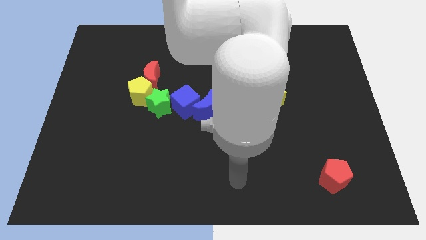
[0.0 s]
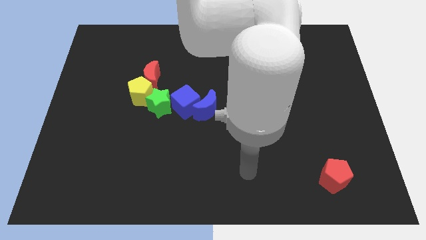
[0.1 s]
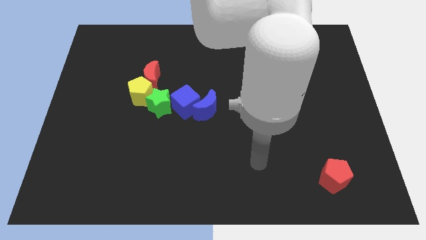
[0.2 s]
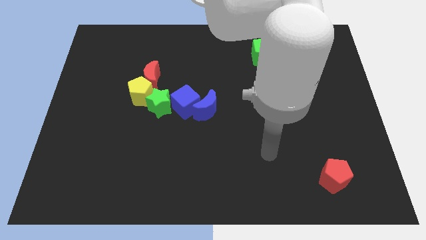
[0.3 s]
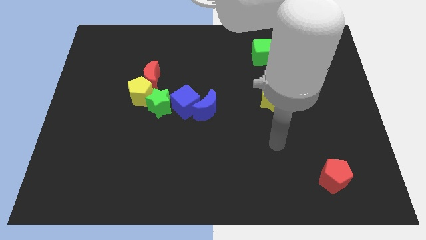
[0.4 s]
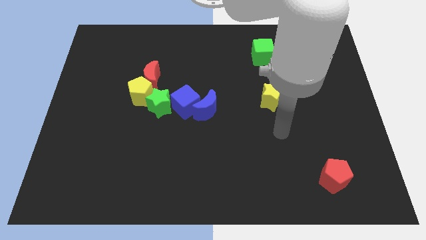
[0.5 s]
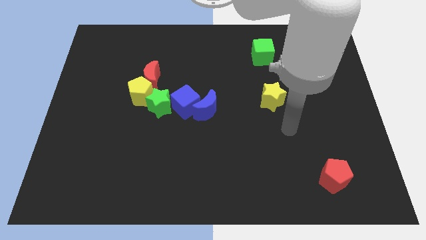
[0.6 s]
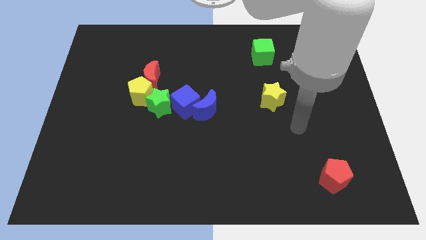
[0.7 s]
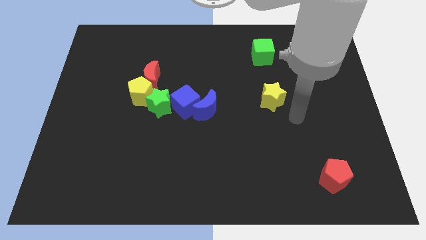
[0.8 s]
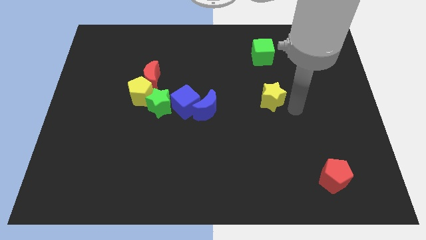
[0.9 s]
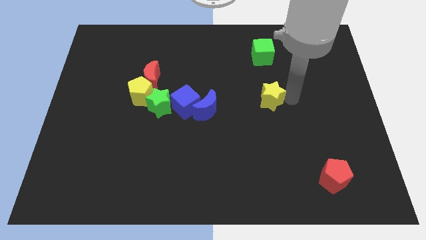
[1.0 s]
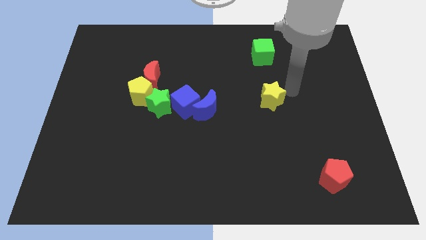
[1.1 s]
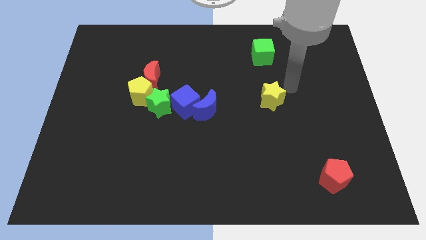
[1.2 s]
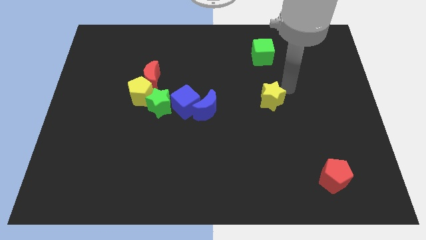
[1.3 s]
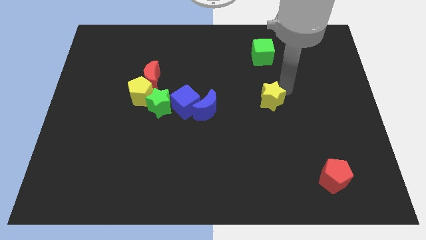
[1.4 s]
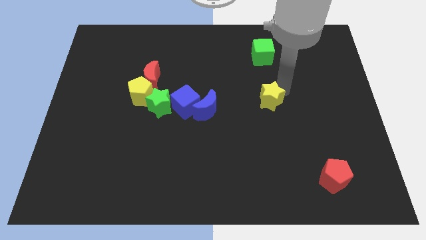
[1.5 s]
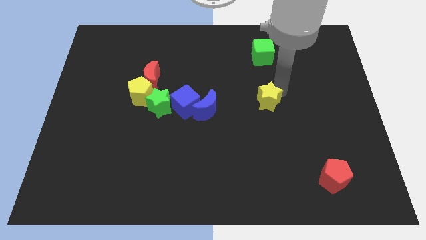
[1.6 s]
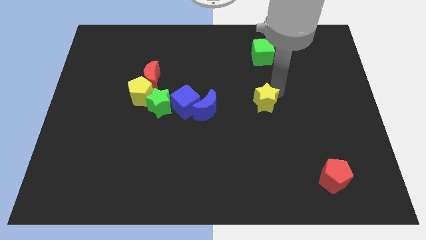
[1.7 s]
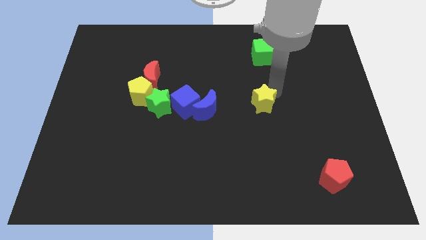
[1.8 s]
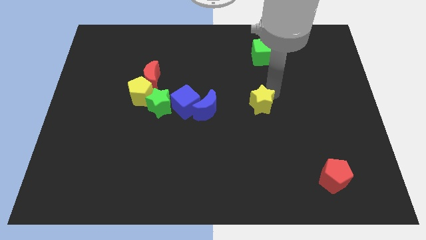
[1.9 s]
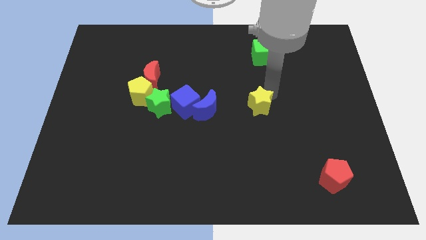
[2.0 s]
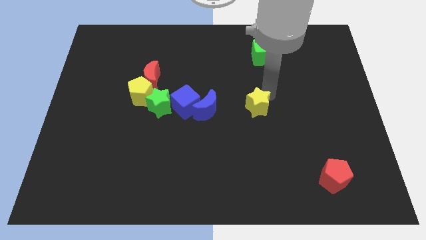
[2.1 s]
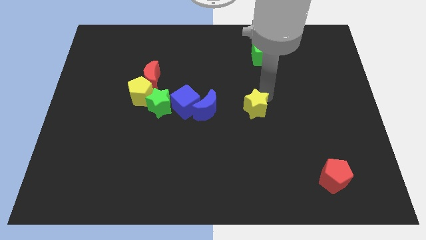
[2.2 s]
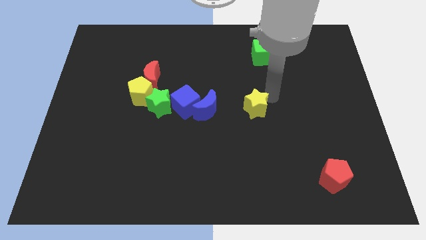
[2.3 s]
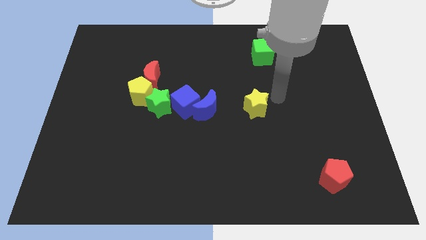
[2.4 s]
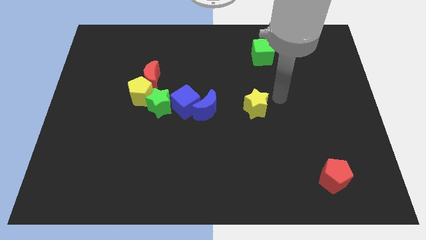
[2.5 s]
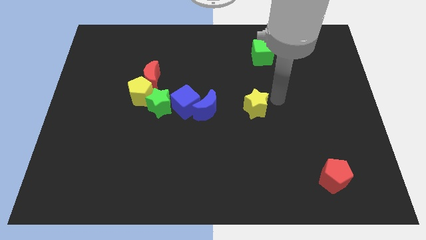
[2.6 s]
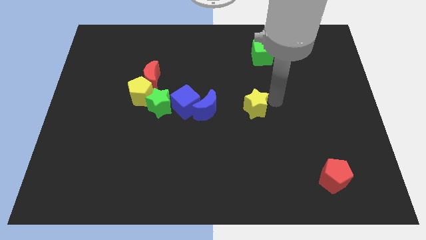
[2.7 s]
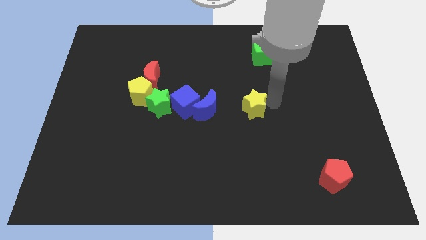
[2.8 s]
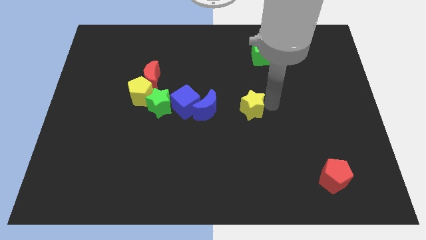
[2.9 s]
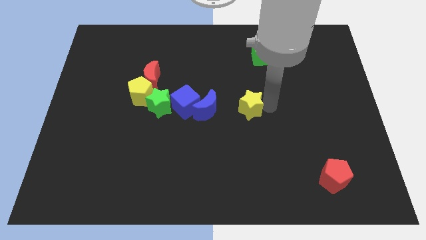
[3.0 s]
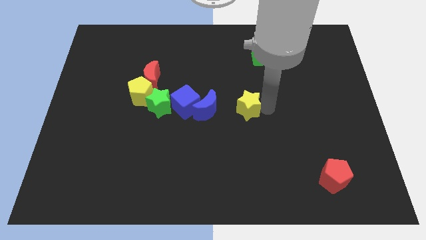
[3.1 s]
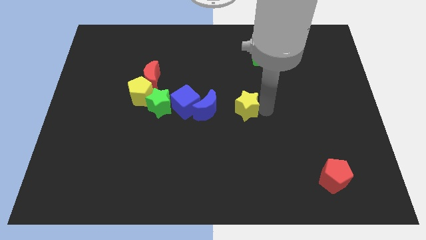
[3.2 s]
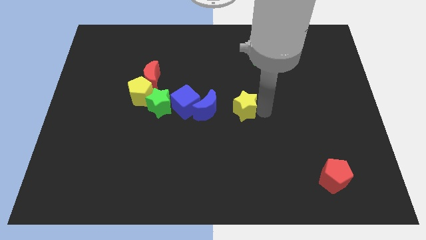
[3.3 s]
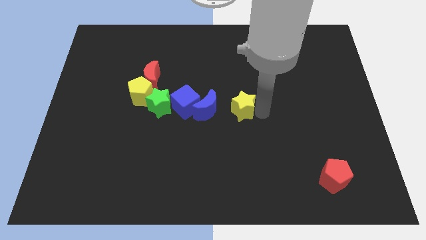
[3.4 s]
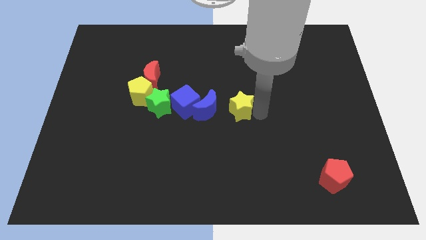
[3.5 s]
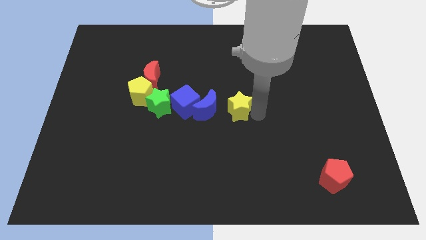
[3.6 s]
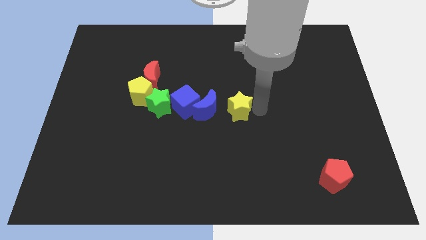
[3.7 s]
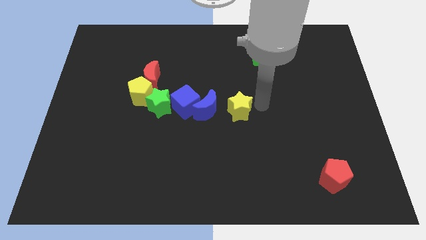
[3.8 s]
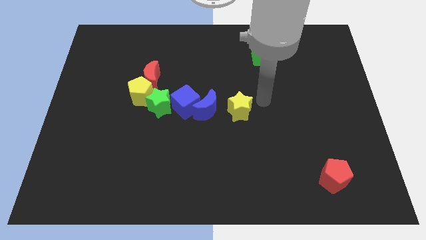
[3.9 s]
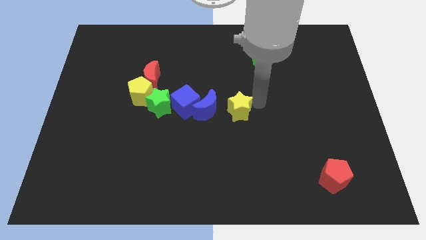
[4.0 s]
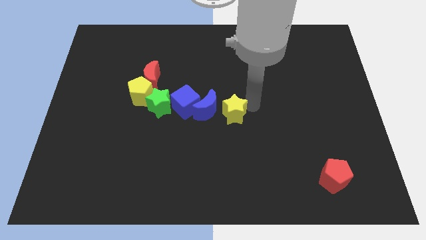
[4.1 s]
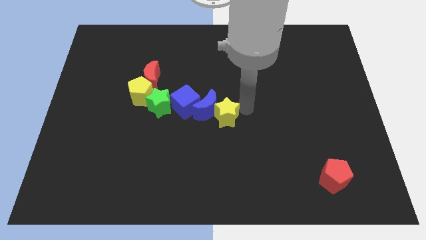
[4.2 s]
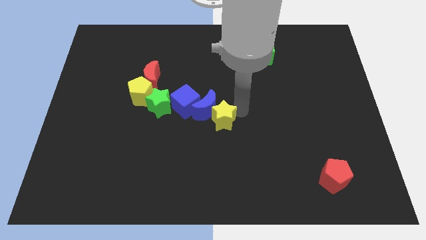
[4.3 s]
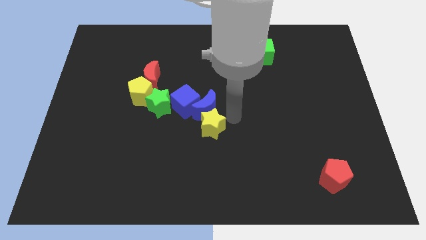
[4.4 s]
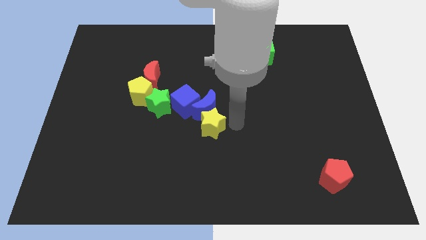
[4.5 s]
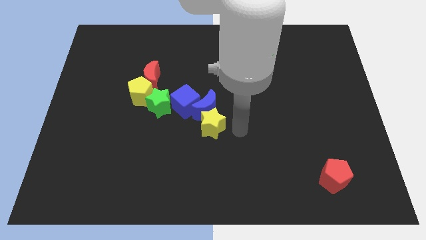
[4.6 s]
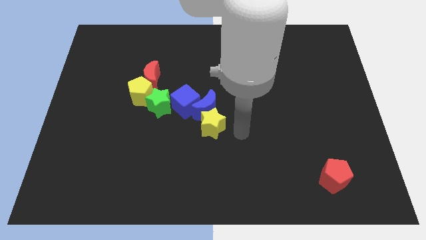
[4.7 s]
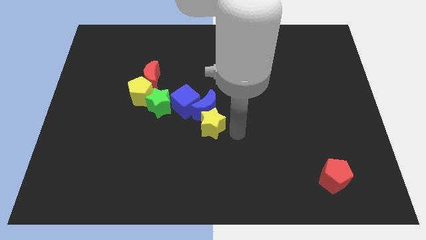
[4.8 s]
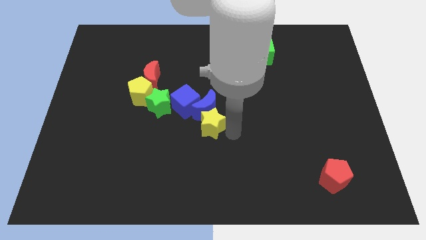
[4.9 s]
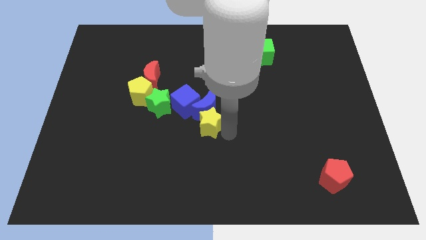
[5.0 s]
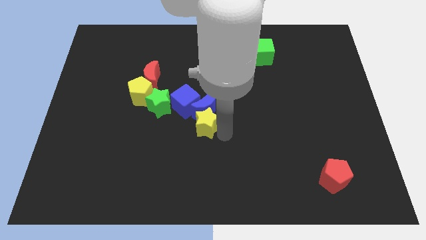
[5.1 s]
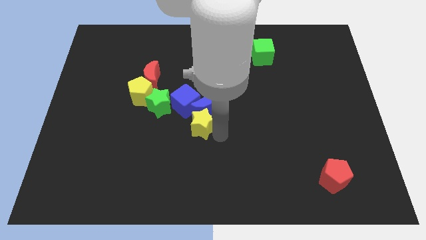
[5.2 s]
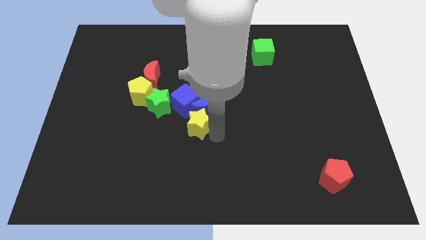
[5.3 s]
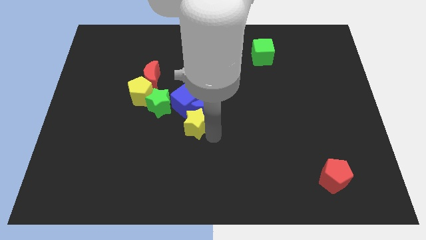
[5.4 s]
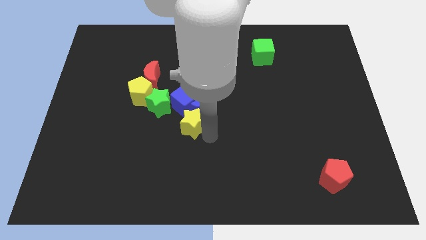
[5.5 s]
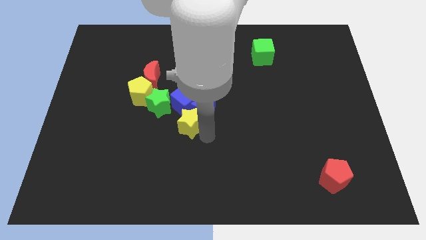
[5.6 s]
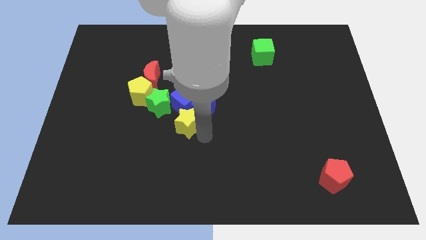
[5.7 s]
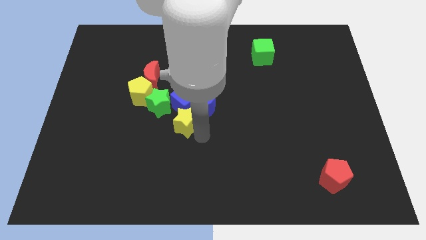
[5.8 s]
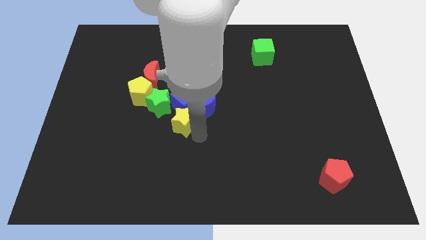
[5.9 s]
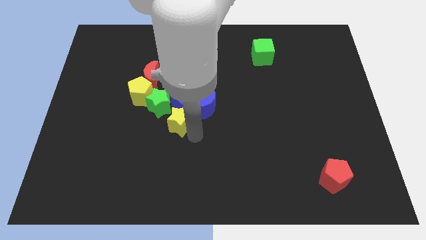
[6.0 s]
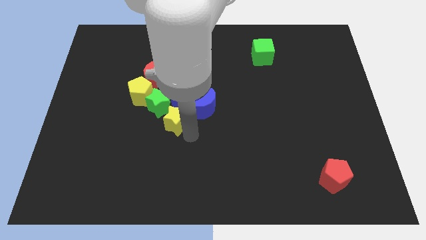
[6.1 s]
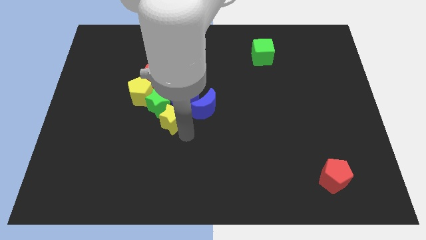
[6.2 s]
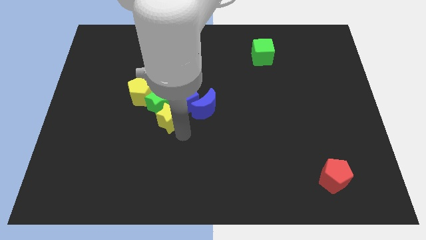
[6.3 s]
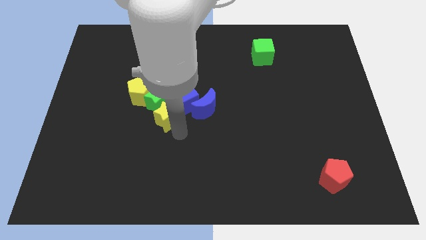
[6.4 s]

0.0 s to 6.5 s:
put the yellow star below the red moon

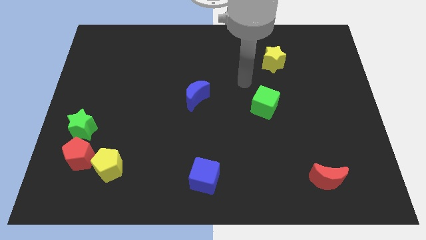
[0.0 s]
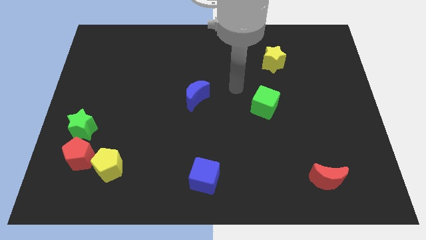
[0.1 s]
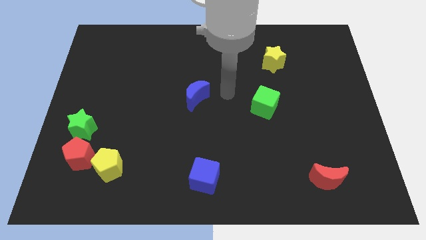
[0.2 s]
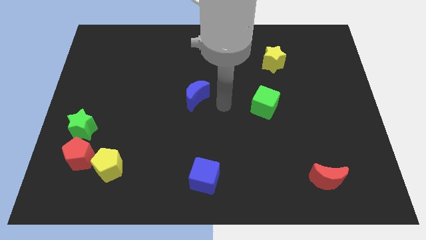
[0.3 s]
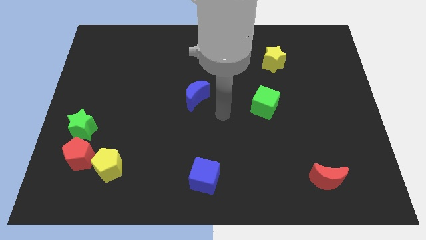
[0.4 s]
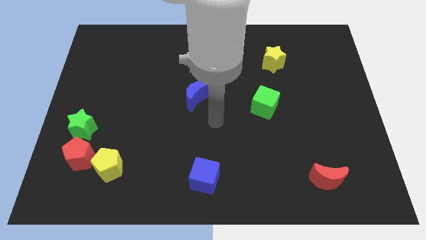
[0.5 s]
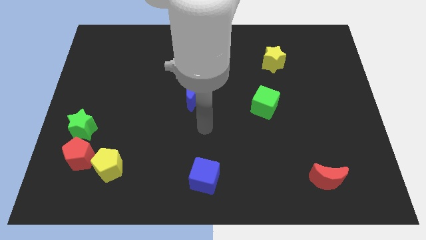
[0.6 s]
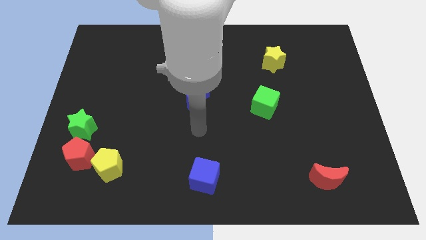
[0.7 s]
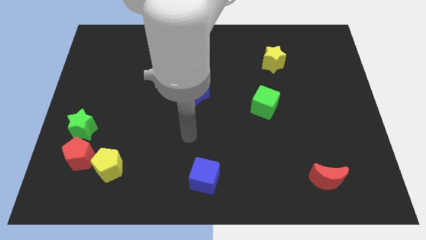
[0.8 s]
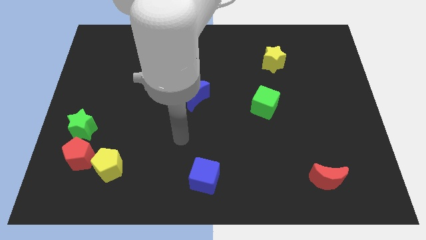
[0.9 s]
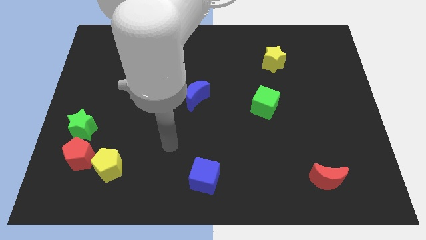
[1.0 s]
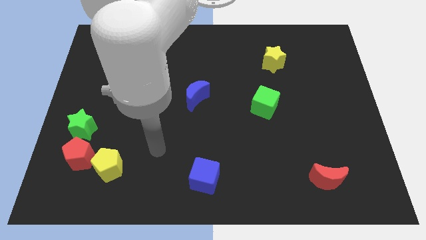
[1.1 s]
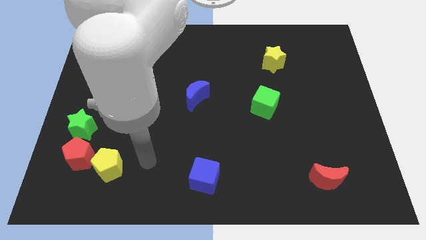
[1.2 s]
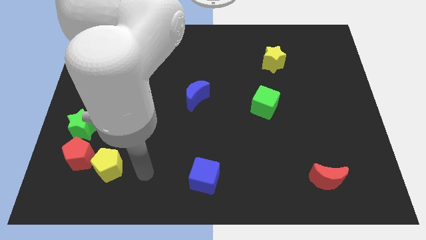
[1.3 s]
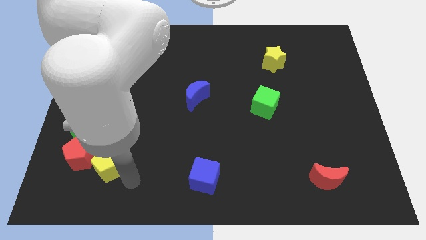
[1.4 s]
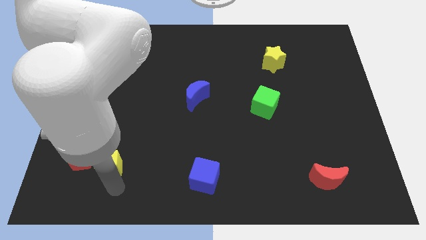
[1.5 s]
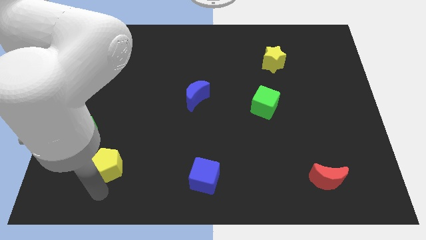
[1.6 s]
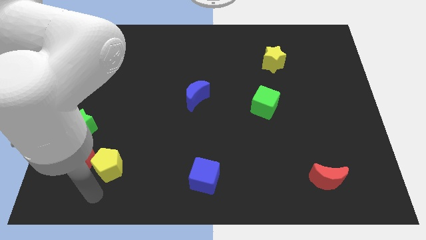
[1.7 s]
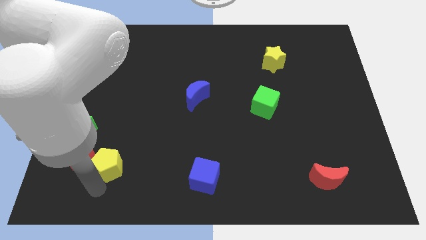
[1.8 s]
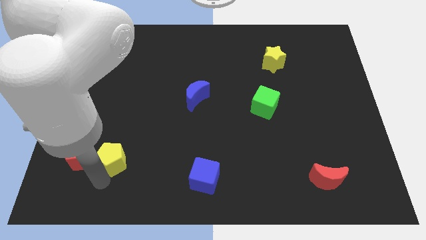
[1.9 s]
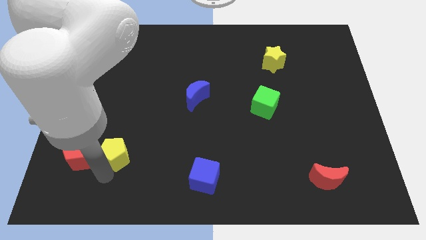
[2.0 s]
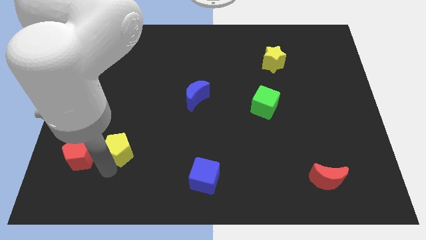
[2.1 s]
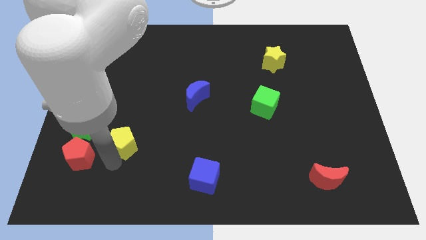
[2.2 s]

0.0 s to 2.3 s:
move the yellow pentagon just right of the green star
